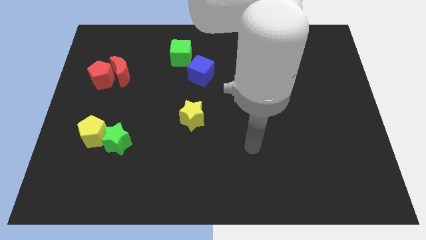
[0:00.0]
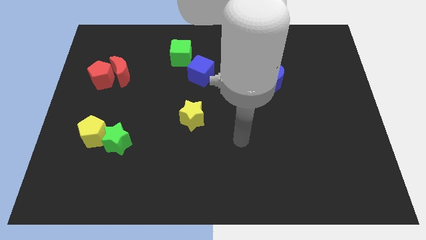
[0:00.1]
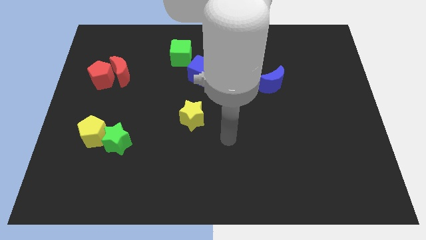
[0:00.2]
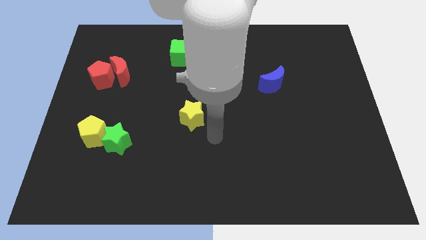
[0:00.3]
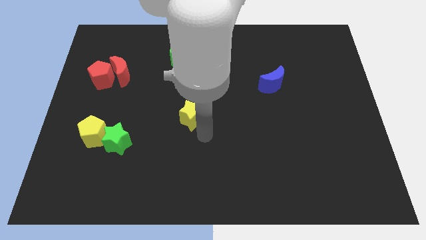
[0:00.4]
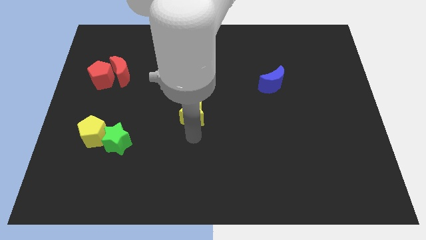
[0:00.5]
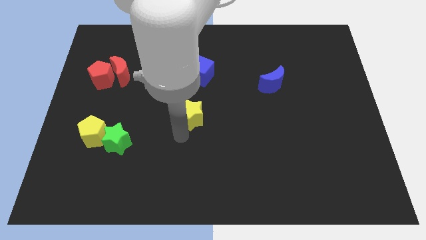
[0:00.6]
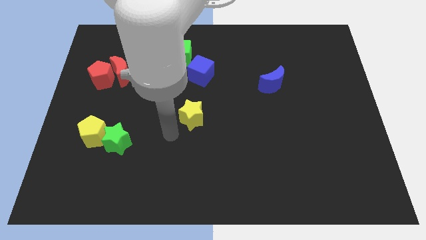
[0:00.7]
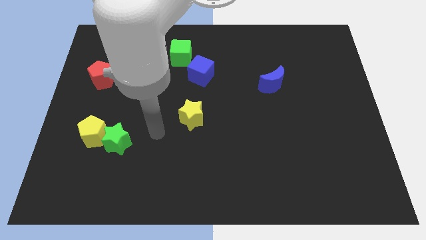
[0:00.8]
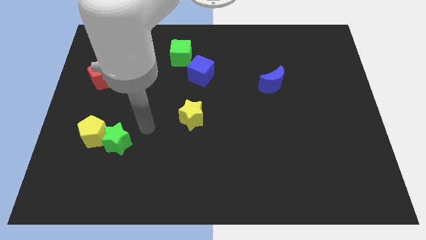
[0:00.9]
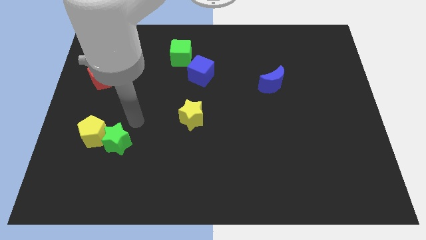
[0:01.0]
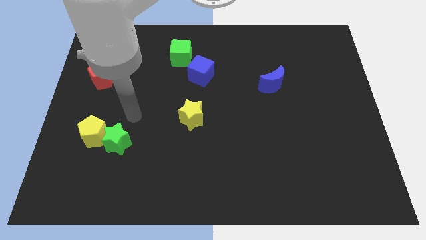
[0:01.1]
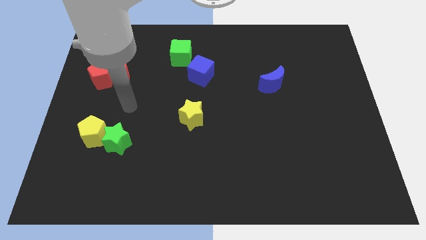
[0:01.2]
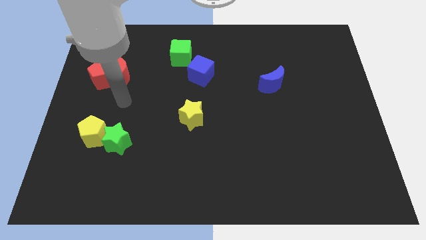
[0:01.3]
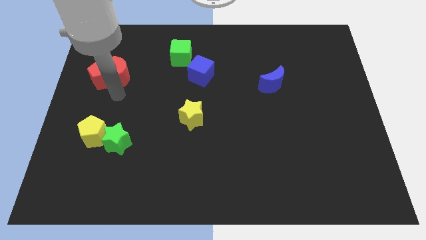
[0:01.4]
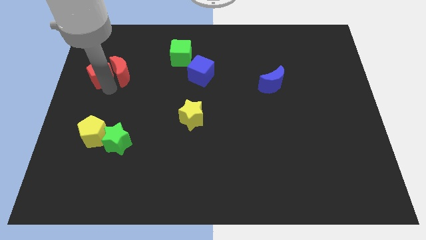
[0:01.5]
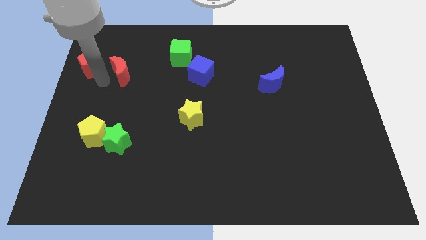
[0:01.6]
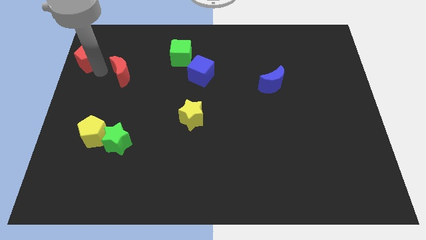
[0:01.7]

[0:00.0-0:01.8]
separate the red moon from the red pentagon

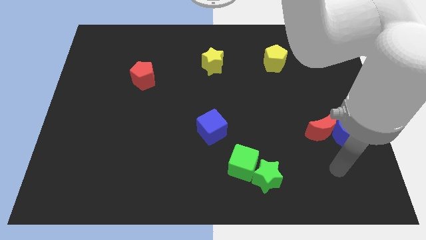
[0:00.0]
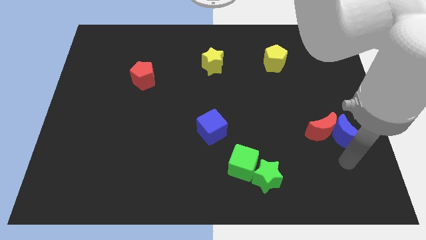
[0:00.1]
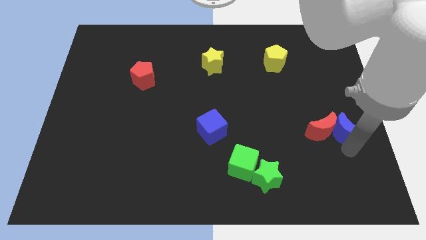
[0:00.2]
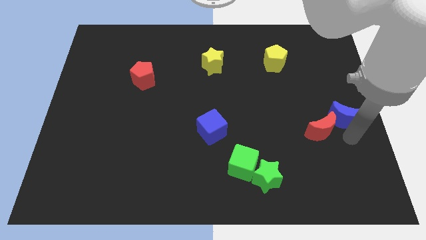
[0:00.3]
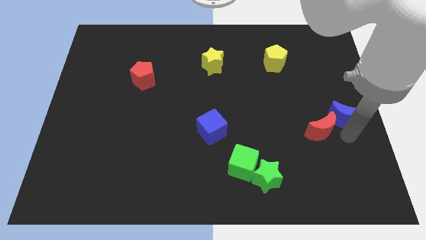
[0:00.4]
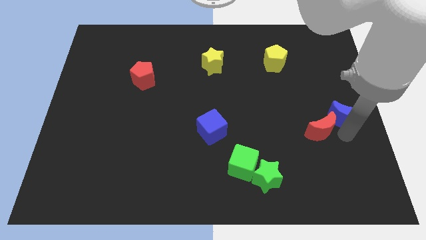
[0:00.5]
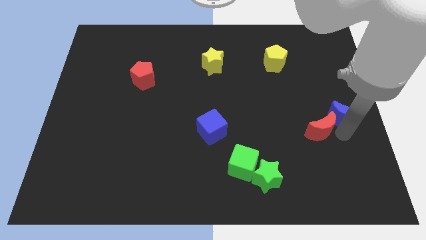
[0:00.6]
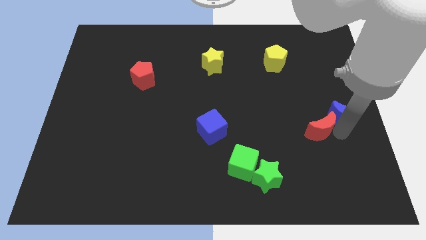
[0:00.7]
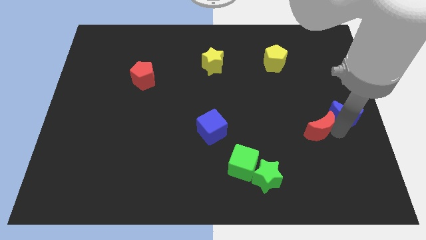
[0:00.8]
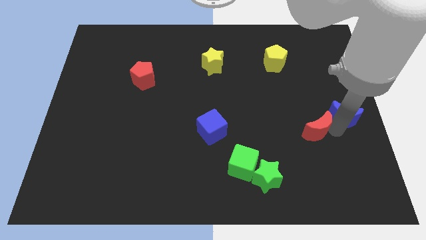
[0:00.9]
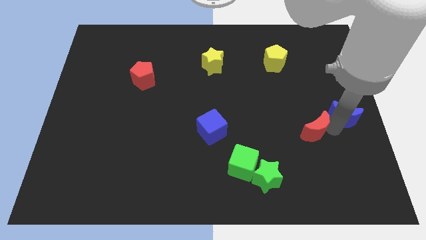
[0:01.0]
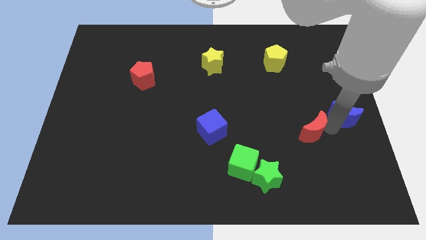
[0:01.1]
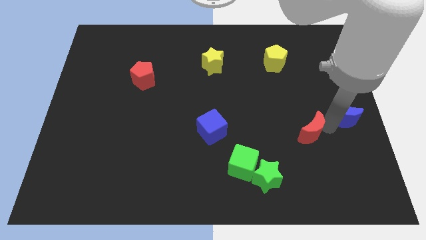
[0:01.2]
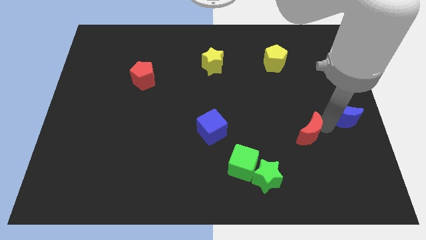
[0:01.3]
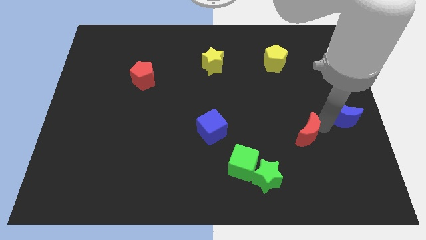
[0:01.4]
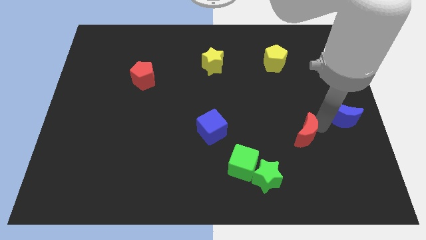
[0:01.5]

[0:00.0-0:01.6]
move the red moon away from the blue moon

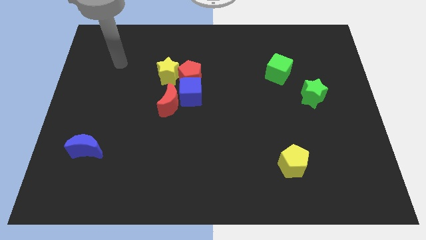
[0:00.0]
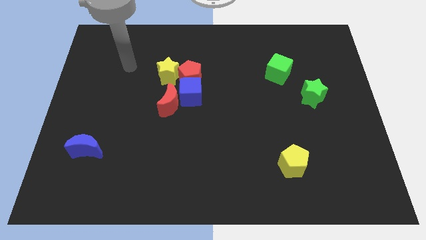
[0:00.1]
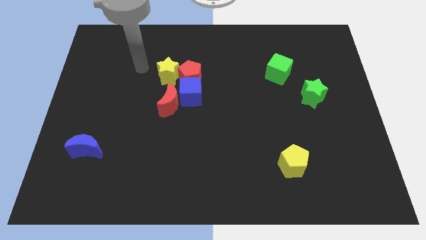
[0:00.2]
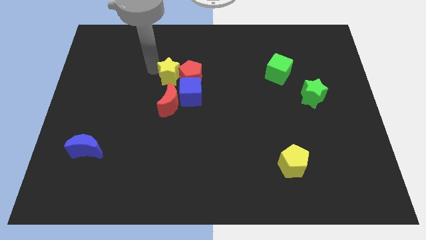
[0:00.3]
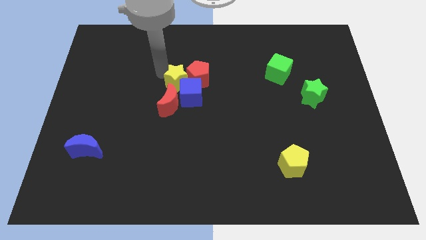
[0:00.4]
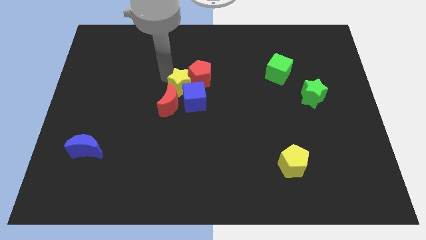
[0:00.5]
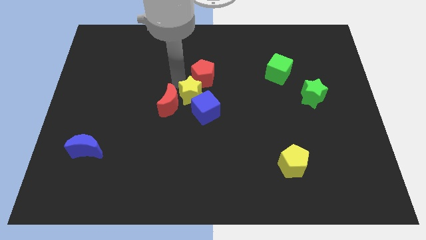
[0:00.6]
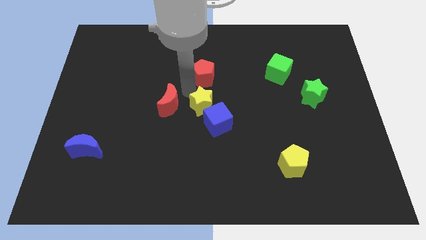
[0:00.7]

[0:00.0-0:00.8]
separate the blue cube from the group

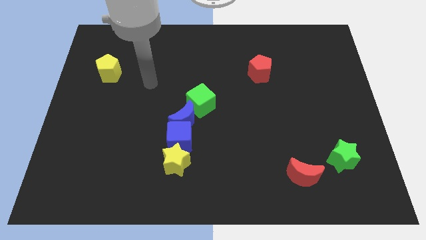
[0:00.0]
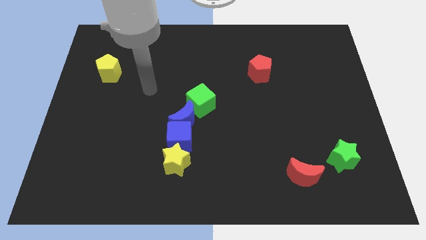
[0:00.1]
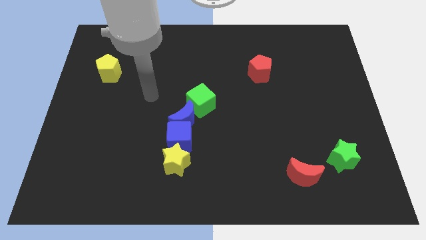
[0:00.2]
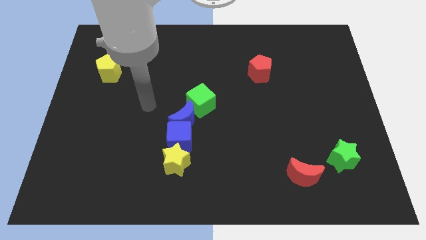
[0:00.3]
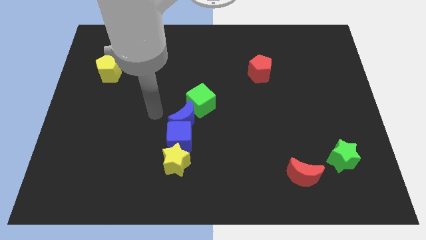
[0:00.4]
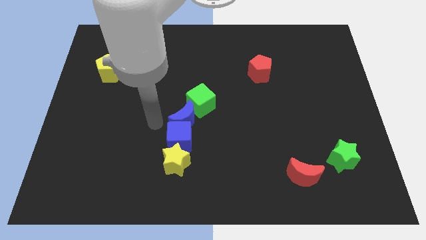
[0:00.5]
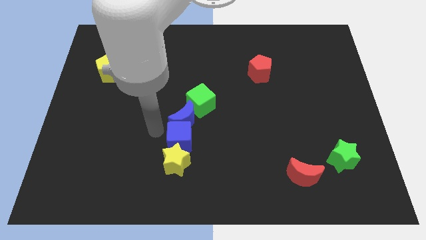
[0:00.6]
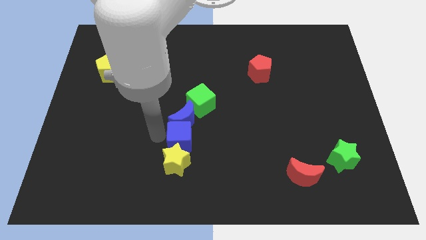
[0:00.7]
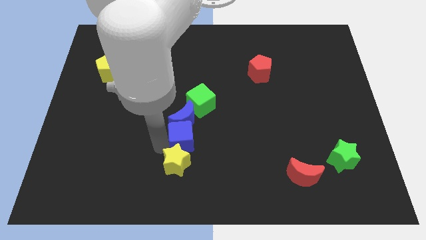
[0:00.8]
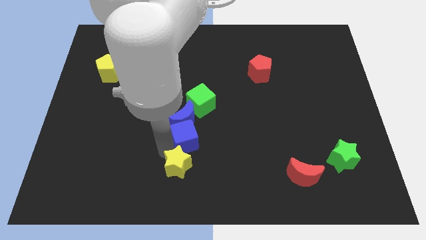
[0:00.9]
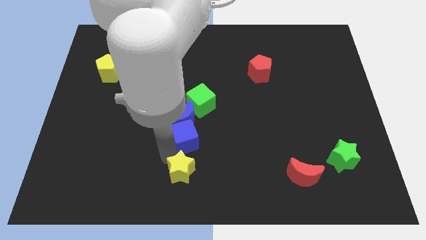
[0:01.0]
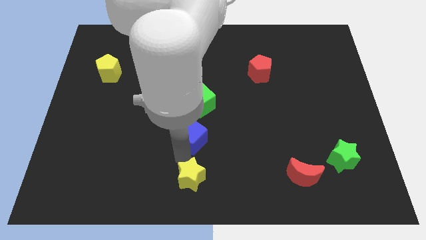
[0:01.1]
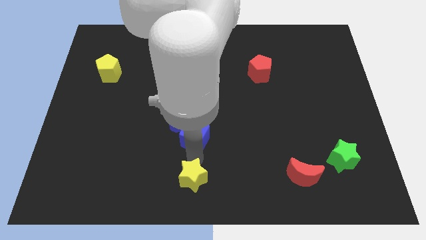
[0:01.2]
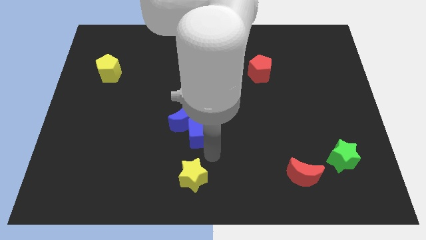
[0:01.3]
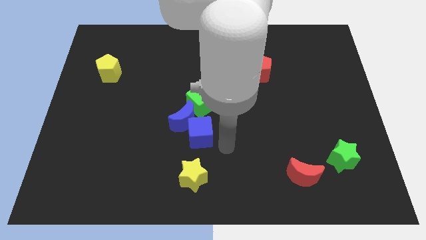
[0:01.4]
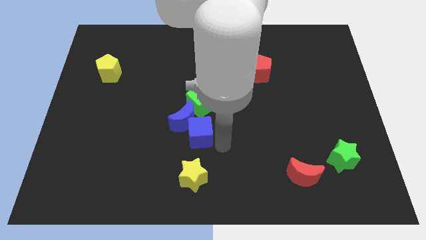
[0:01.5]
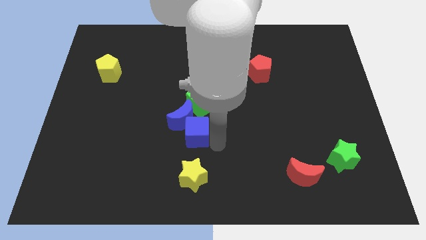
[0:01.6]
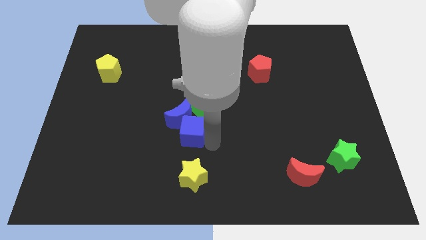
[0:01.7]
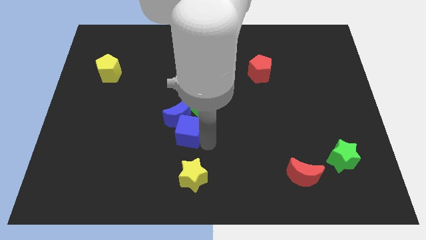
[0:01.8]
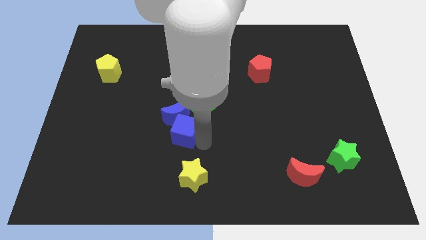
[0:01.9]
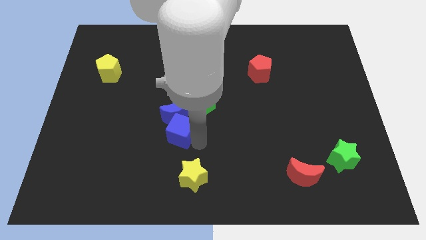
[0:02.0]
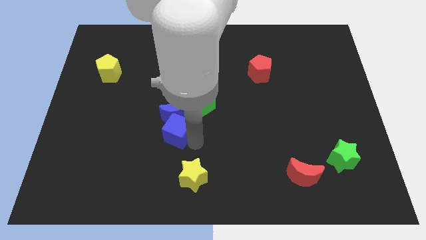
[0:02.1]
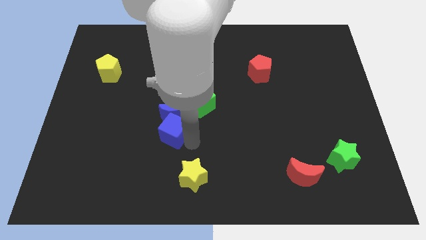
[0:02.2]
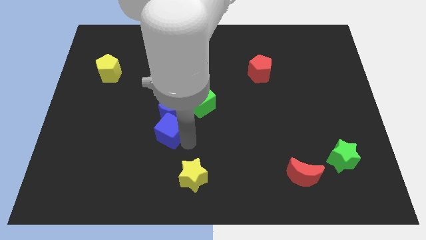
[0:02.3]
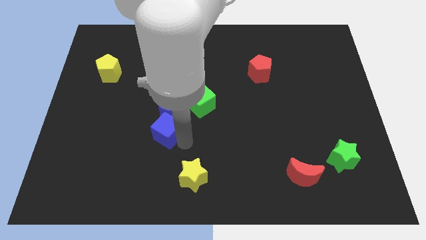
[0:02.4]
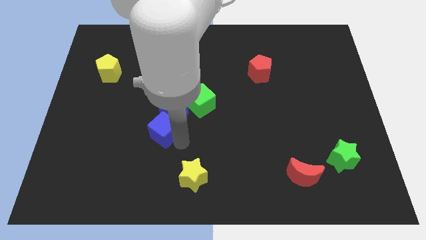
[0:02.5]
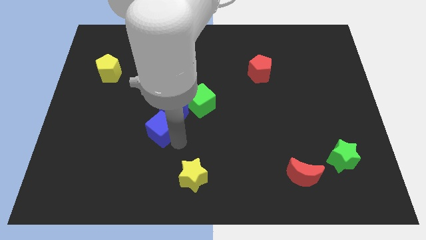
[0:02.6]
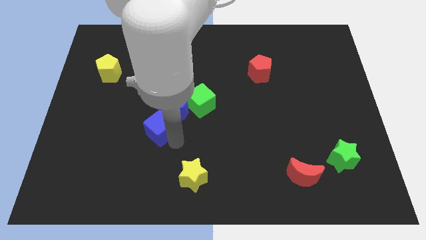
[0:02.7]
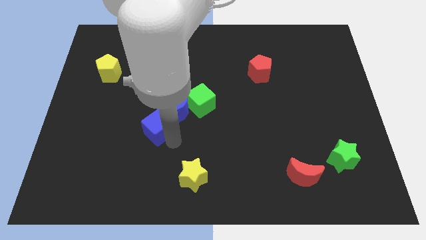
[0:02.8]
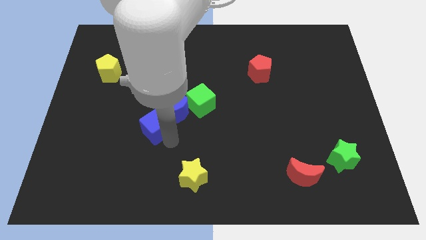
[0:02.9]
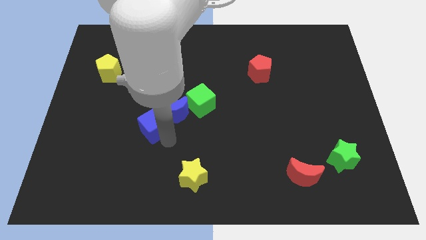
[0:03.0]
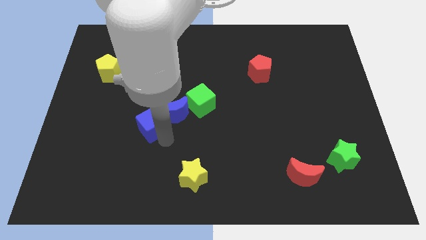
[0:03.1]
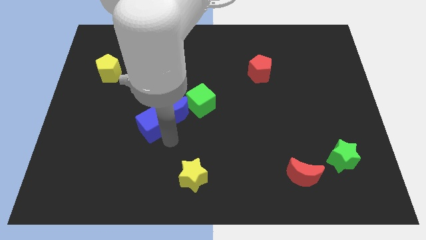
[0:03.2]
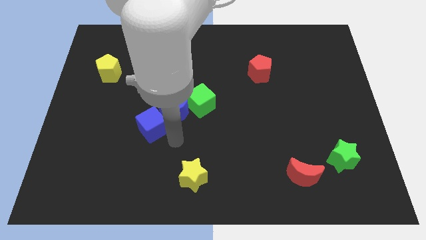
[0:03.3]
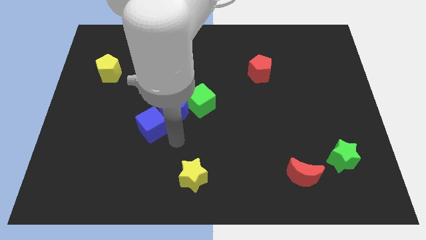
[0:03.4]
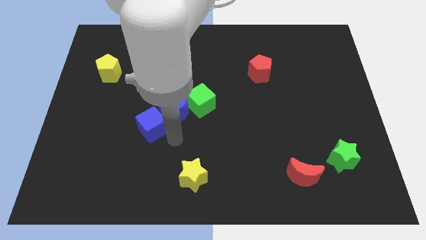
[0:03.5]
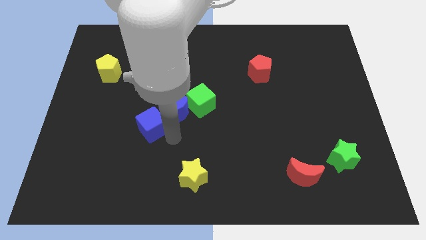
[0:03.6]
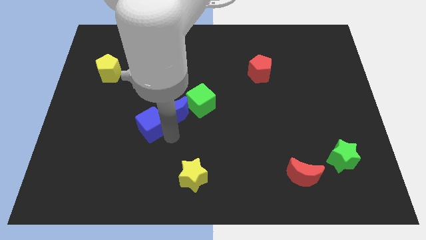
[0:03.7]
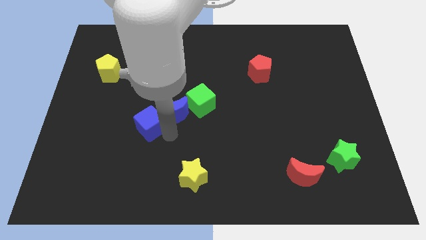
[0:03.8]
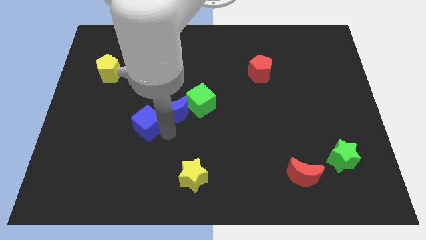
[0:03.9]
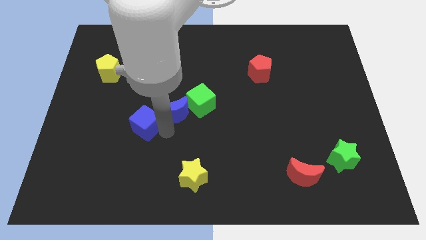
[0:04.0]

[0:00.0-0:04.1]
move the blue cube away from the blue moon and yellow star

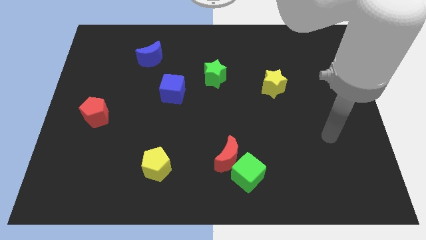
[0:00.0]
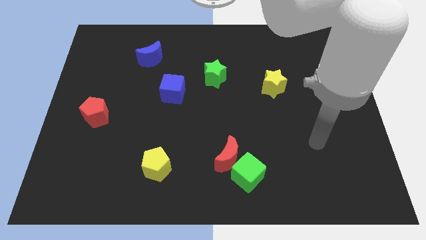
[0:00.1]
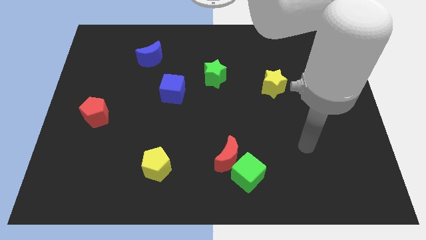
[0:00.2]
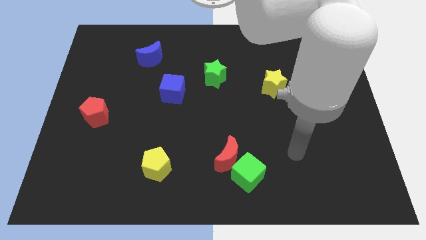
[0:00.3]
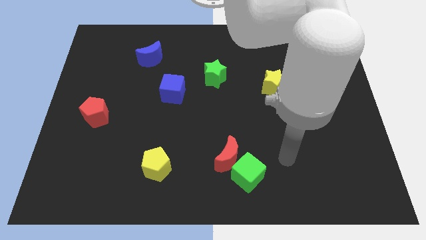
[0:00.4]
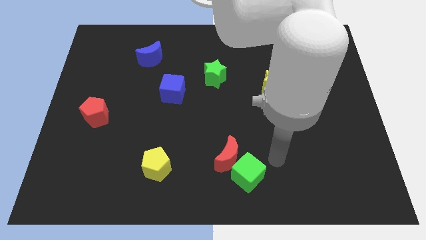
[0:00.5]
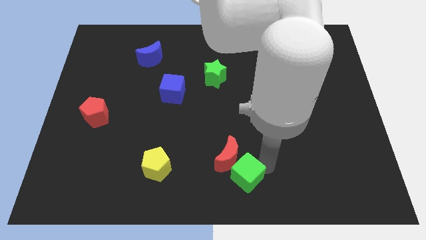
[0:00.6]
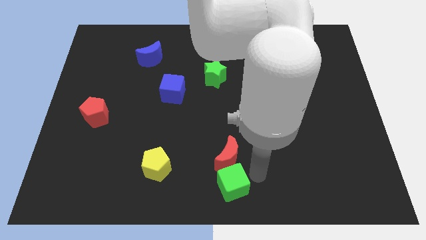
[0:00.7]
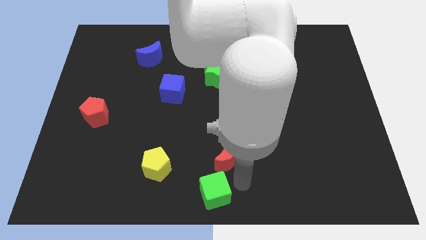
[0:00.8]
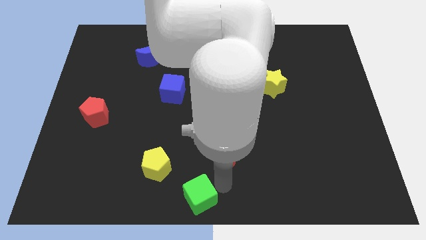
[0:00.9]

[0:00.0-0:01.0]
separate the red moon from the green cube
